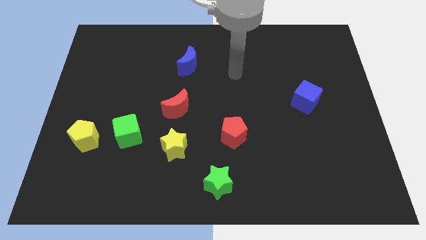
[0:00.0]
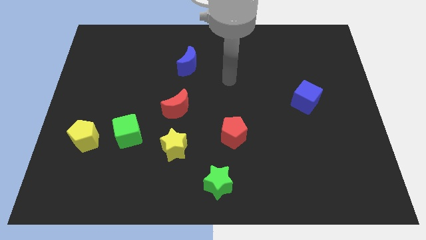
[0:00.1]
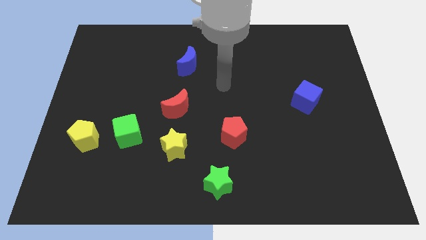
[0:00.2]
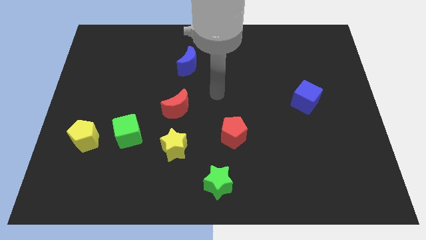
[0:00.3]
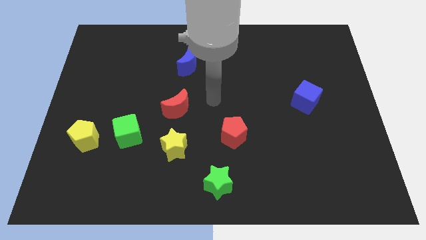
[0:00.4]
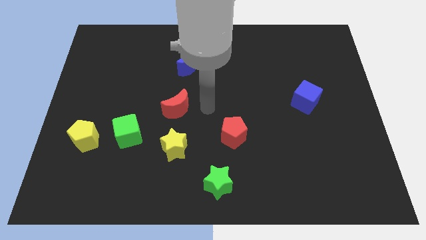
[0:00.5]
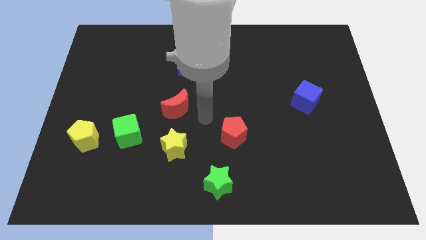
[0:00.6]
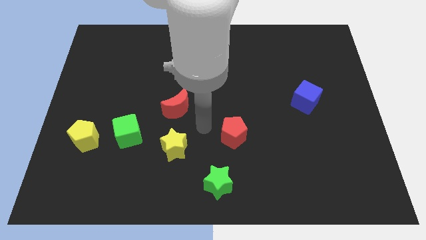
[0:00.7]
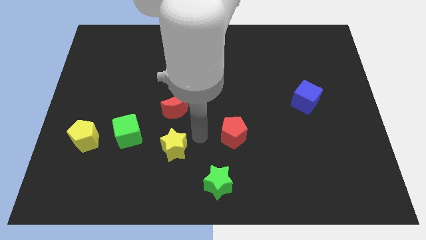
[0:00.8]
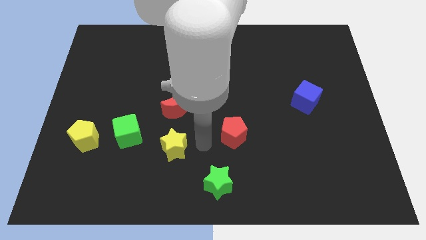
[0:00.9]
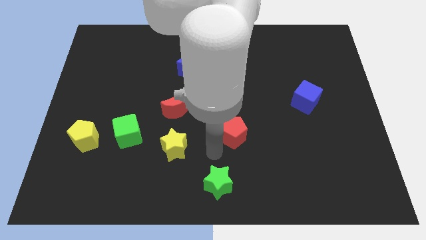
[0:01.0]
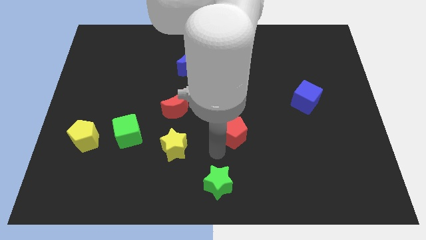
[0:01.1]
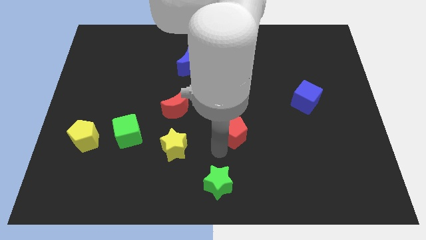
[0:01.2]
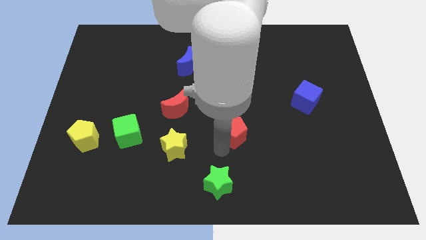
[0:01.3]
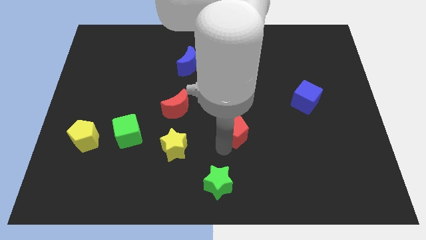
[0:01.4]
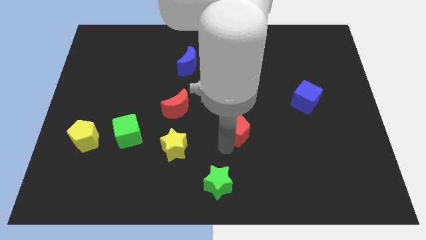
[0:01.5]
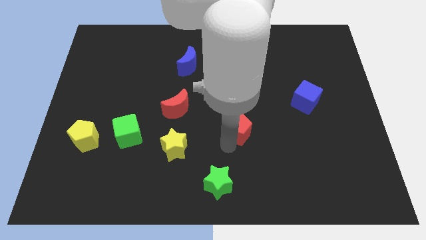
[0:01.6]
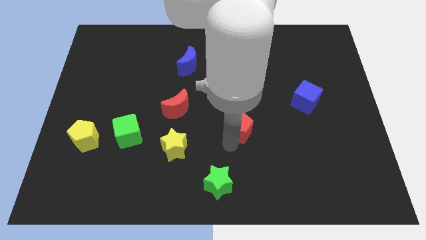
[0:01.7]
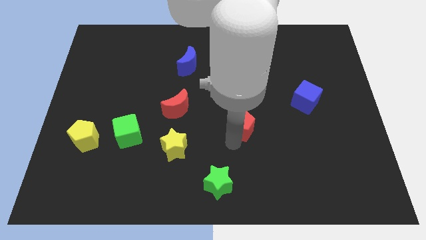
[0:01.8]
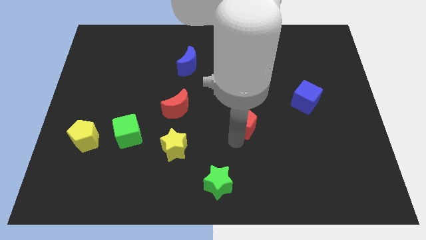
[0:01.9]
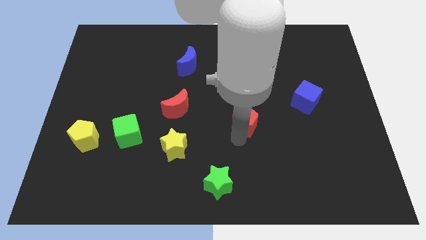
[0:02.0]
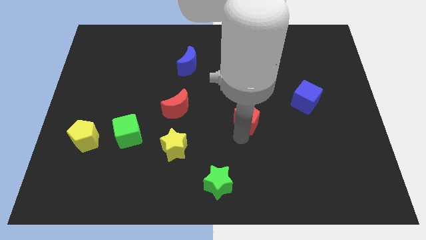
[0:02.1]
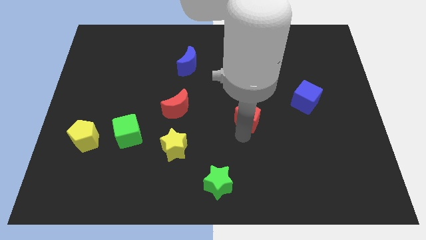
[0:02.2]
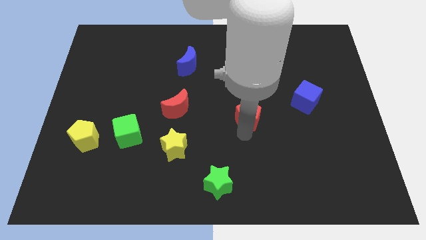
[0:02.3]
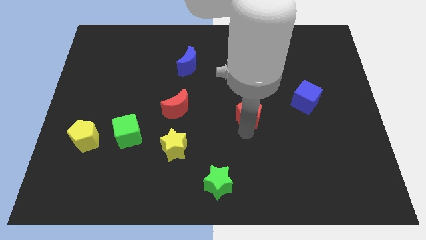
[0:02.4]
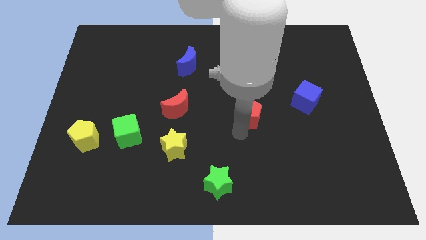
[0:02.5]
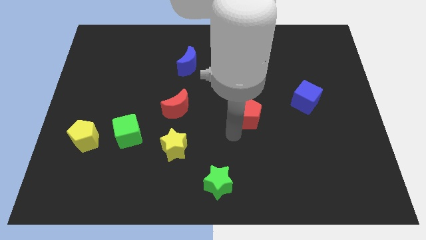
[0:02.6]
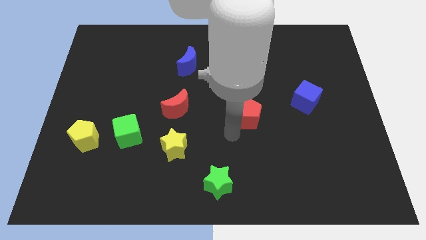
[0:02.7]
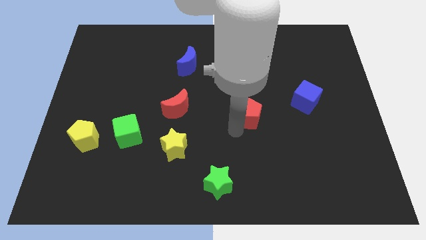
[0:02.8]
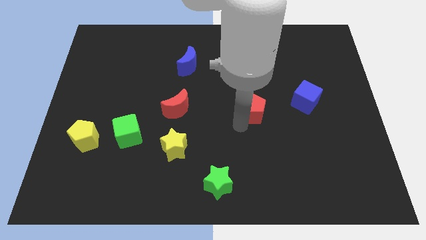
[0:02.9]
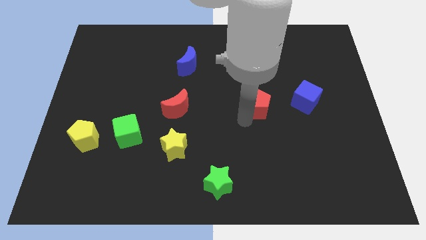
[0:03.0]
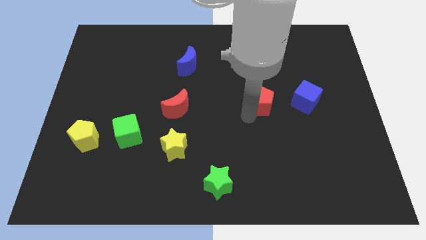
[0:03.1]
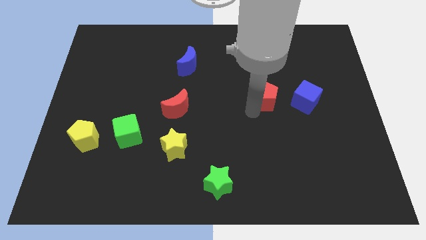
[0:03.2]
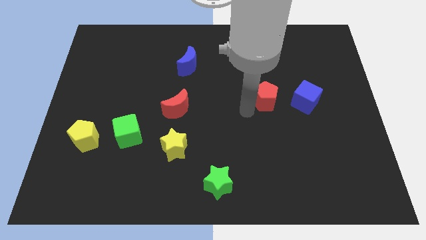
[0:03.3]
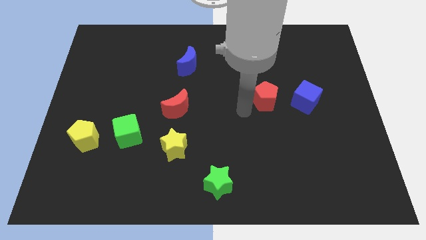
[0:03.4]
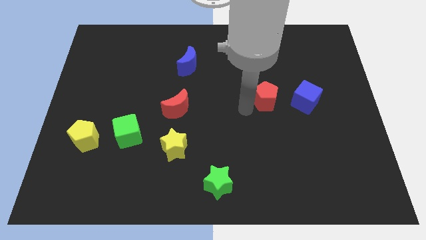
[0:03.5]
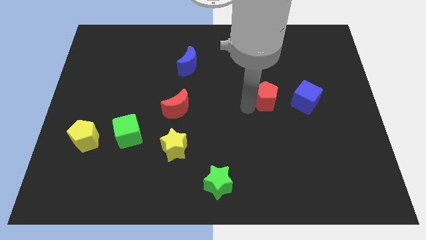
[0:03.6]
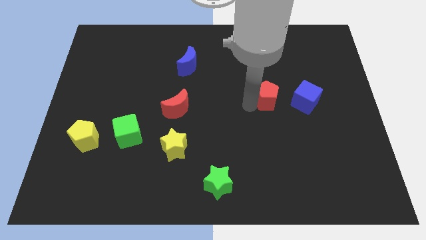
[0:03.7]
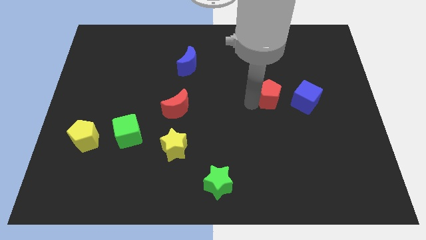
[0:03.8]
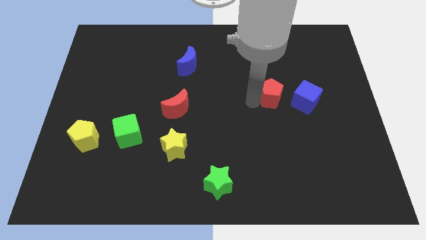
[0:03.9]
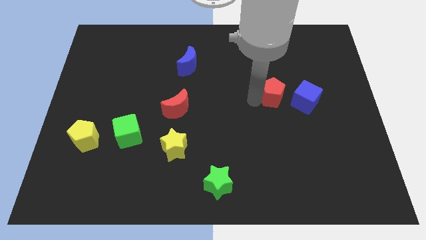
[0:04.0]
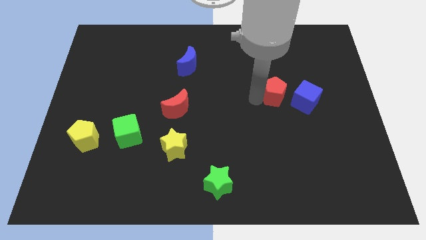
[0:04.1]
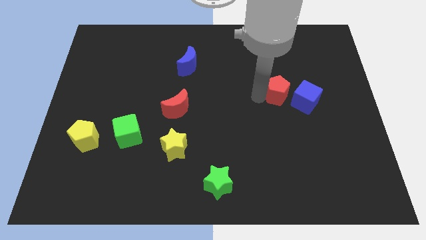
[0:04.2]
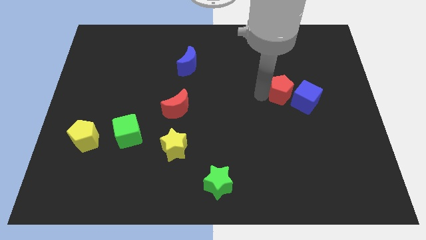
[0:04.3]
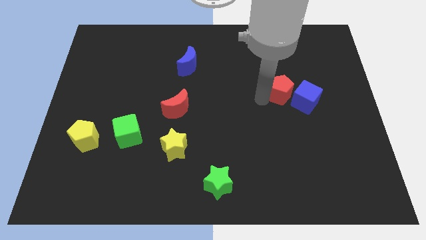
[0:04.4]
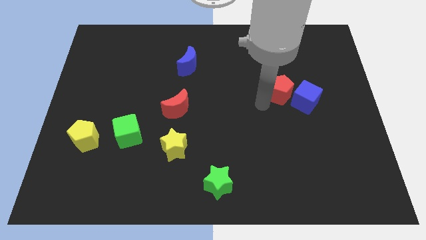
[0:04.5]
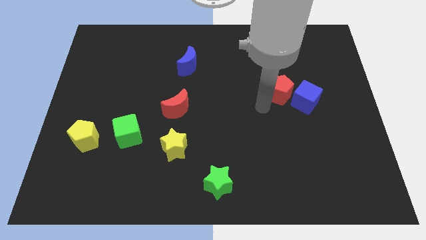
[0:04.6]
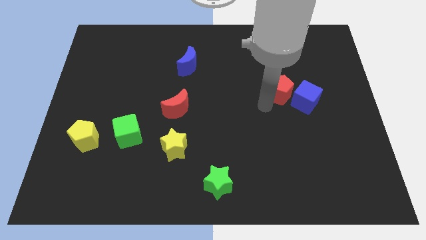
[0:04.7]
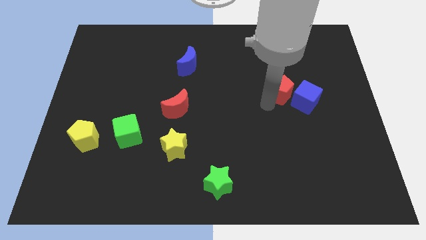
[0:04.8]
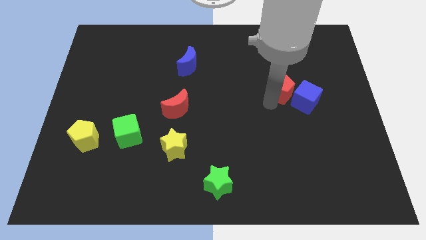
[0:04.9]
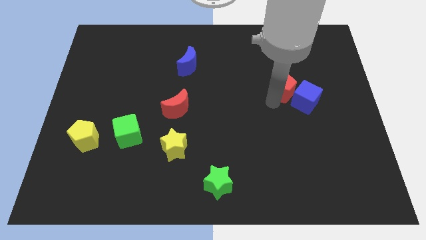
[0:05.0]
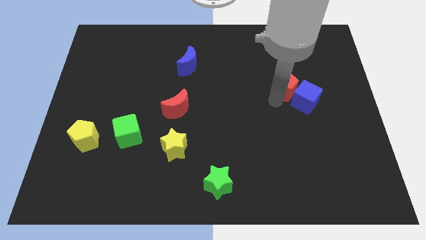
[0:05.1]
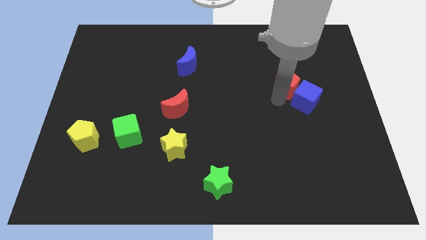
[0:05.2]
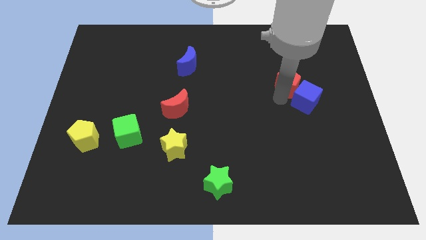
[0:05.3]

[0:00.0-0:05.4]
push the red pentagon up and right diagonally

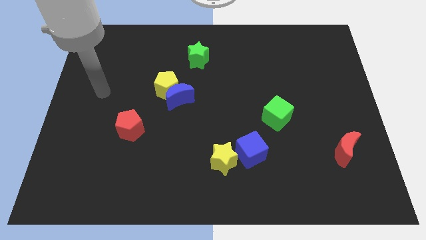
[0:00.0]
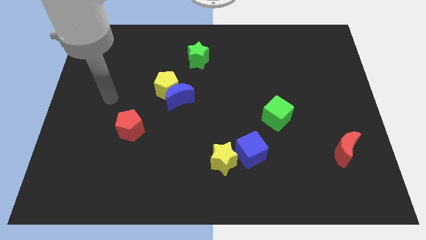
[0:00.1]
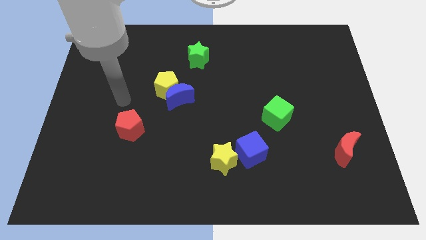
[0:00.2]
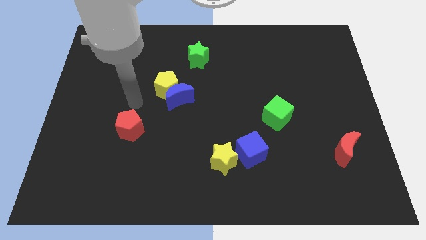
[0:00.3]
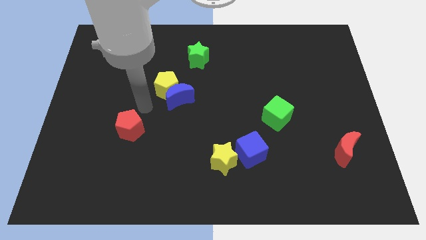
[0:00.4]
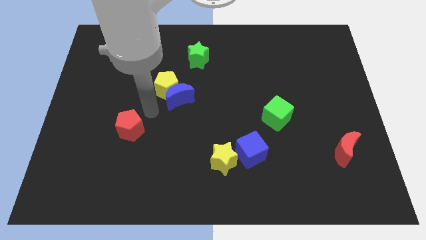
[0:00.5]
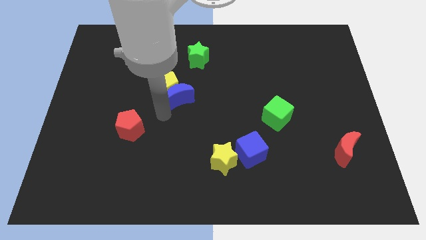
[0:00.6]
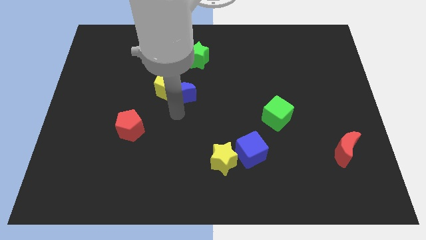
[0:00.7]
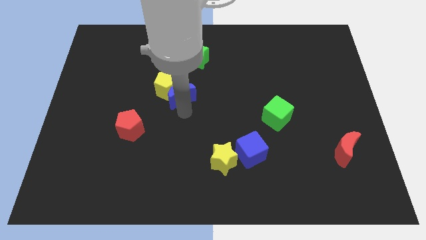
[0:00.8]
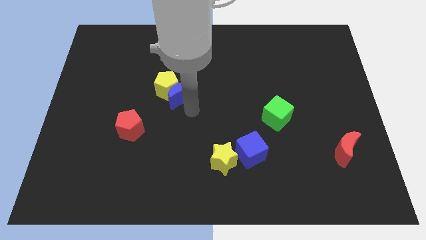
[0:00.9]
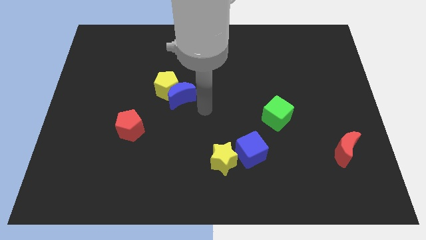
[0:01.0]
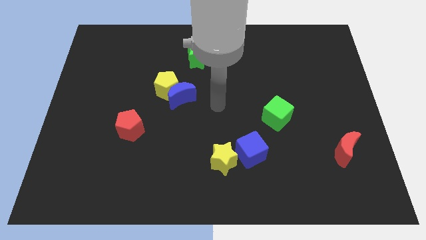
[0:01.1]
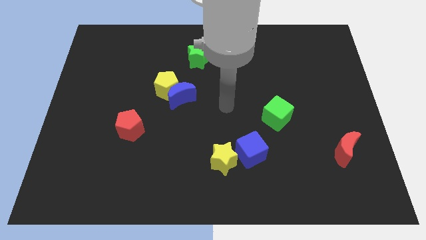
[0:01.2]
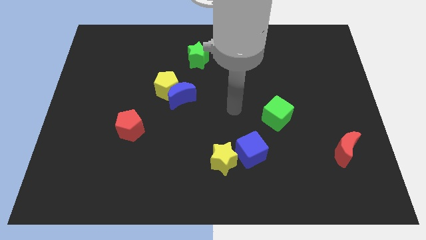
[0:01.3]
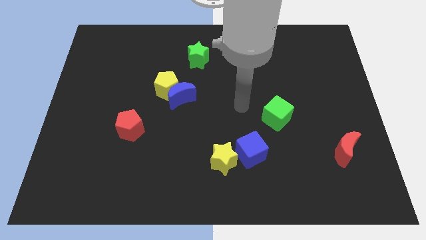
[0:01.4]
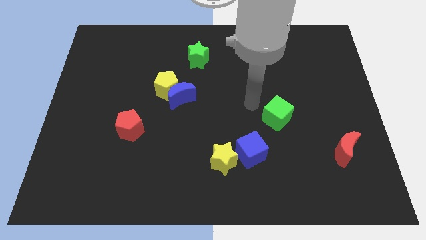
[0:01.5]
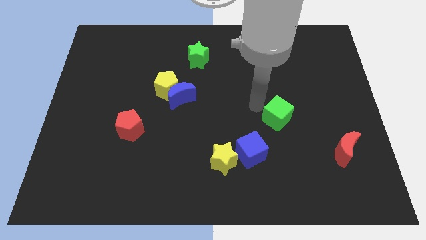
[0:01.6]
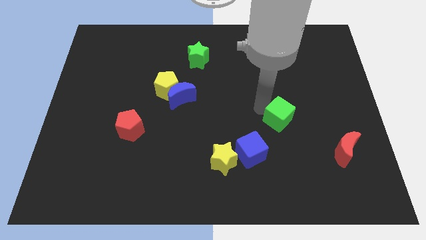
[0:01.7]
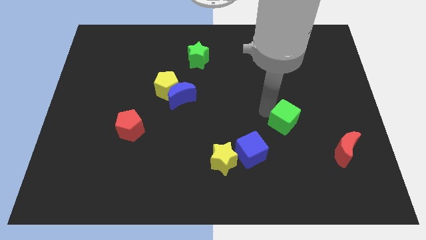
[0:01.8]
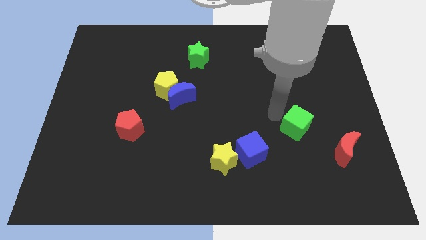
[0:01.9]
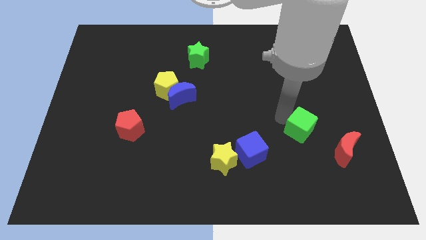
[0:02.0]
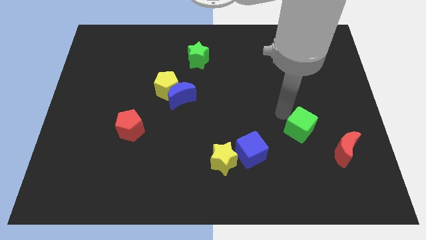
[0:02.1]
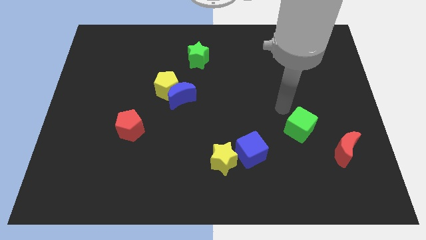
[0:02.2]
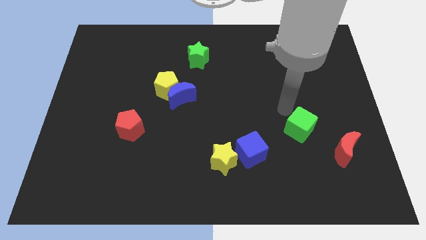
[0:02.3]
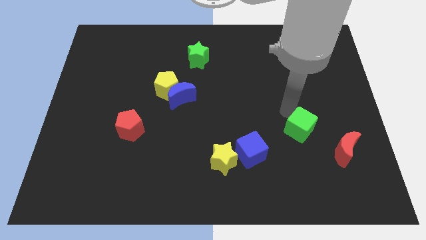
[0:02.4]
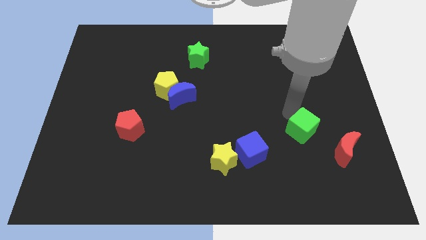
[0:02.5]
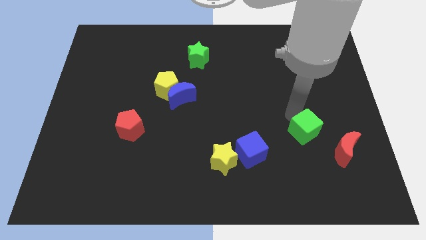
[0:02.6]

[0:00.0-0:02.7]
slightly move the green cube diagonally down and to the right

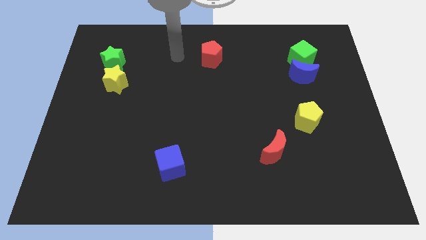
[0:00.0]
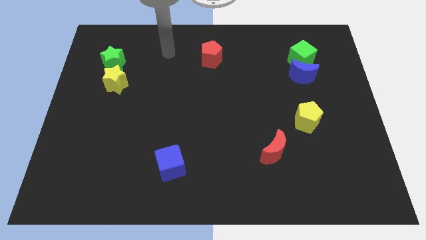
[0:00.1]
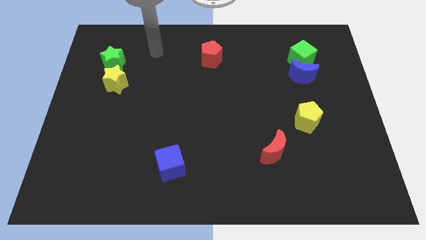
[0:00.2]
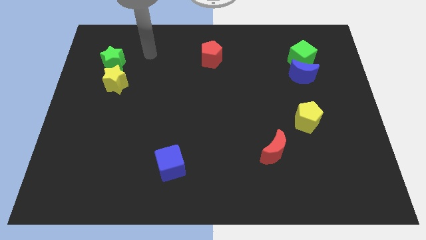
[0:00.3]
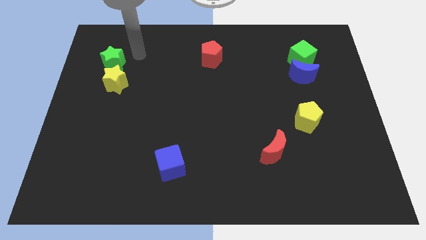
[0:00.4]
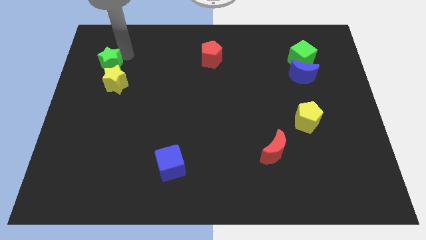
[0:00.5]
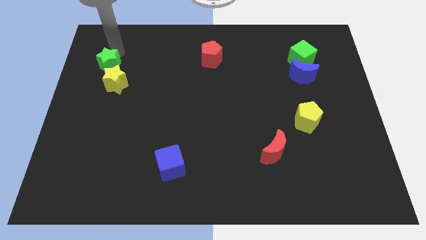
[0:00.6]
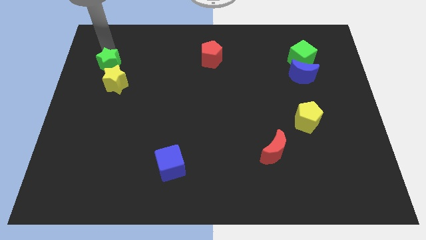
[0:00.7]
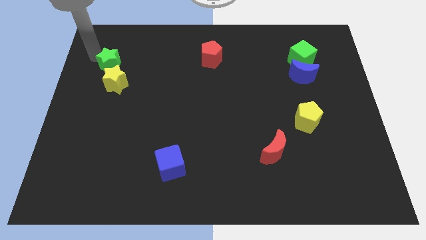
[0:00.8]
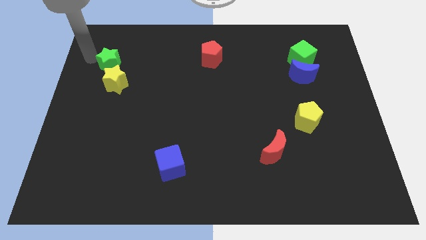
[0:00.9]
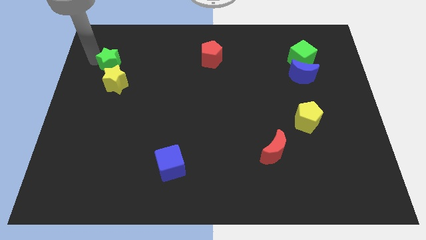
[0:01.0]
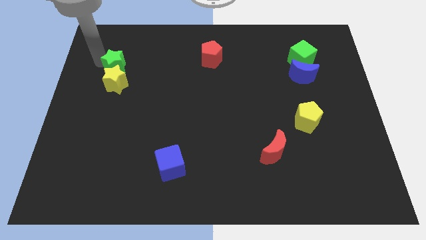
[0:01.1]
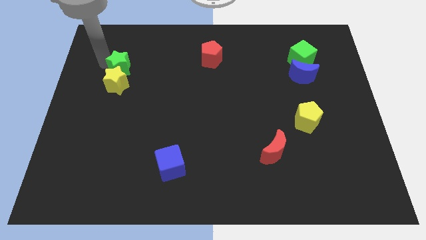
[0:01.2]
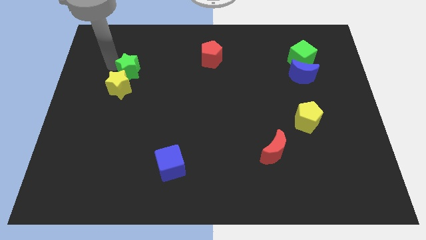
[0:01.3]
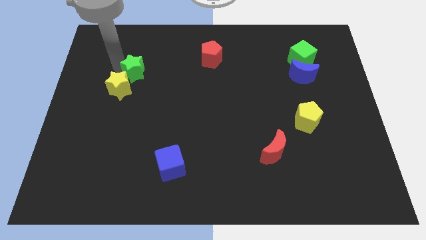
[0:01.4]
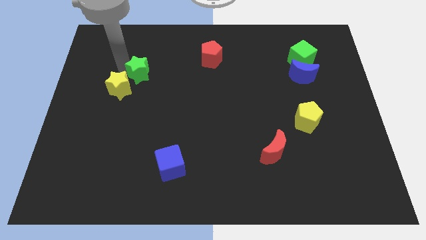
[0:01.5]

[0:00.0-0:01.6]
slightly slide the green star down and to the right diagonally
